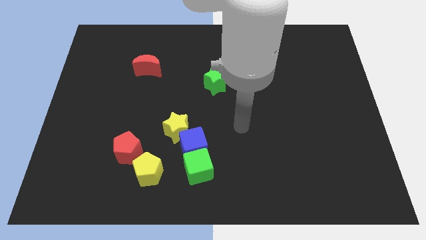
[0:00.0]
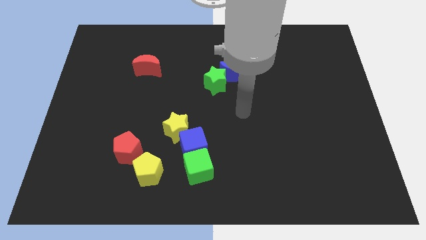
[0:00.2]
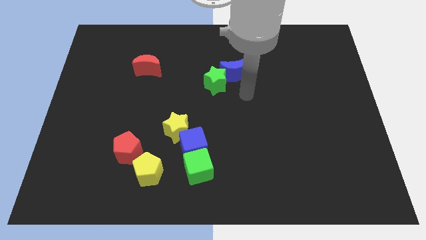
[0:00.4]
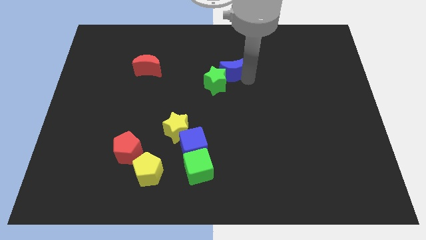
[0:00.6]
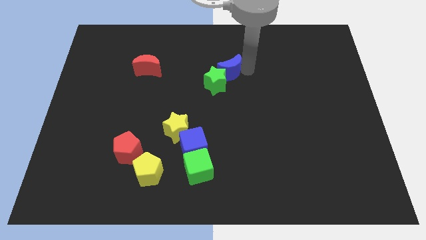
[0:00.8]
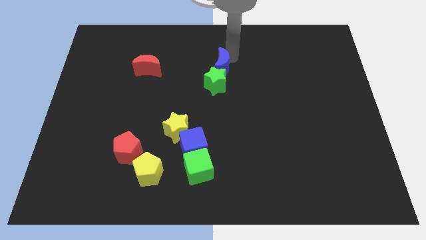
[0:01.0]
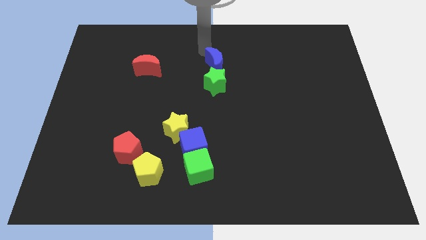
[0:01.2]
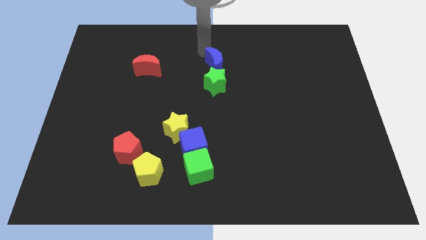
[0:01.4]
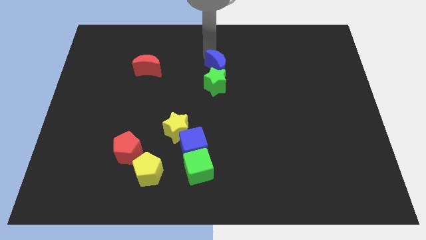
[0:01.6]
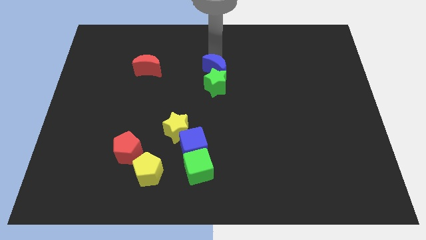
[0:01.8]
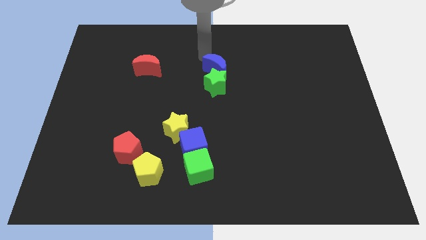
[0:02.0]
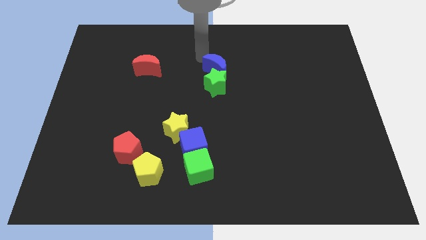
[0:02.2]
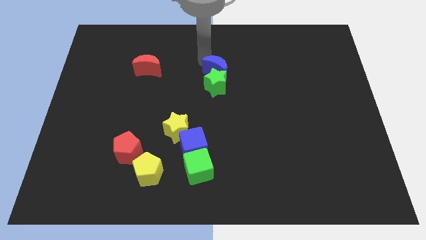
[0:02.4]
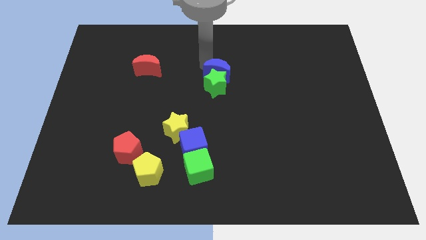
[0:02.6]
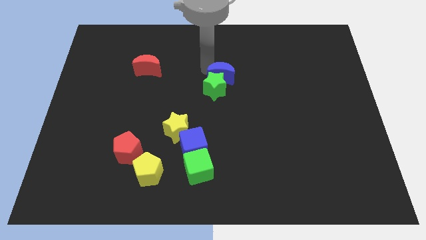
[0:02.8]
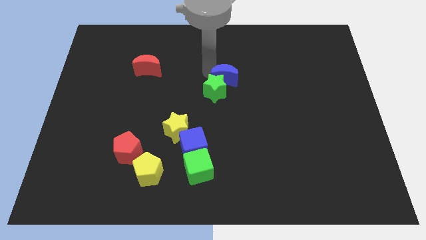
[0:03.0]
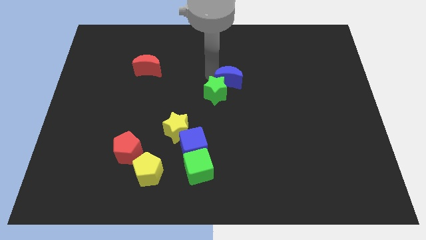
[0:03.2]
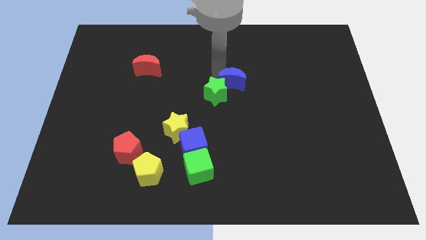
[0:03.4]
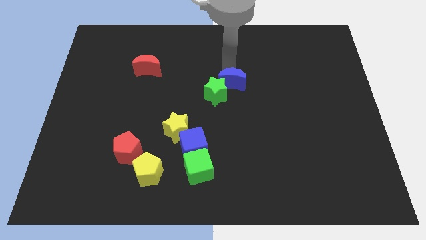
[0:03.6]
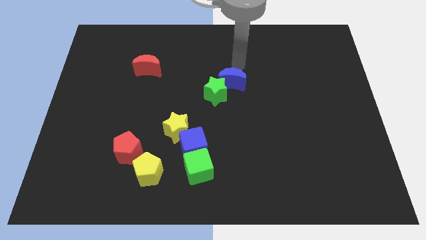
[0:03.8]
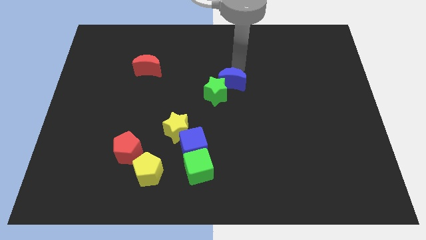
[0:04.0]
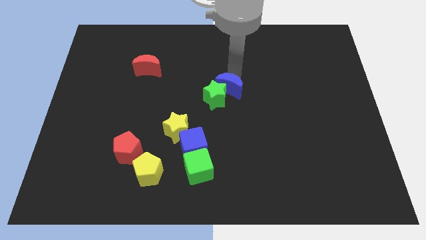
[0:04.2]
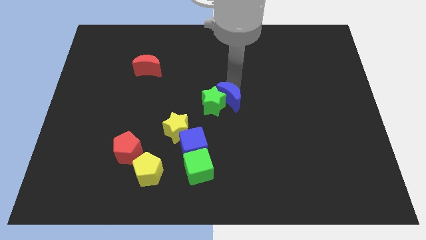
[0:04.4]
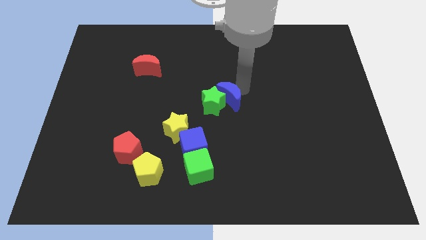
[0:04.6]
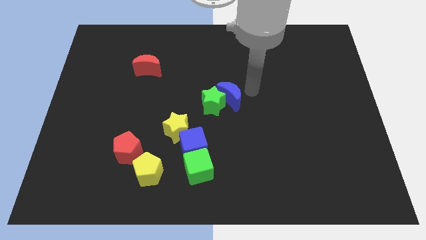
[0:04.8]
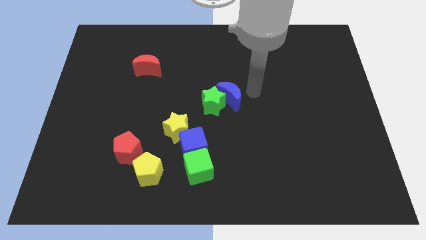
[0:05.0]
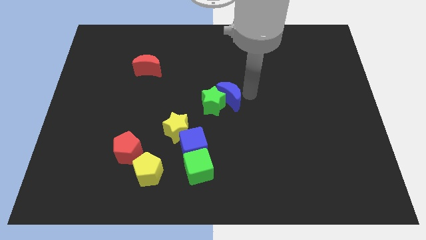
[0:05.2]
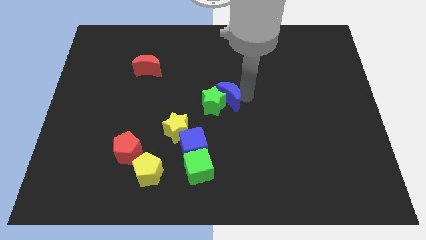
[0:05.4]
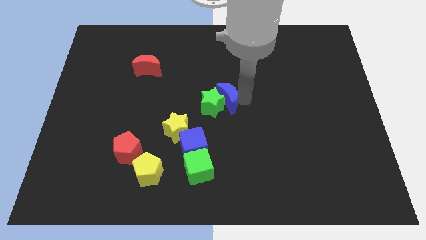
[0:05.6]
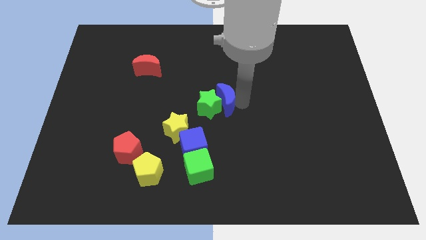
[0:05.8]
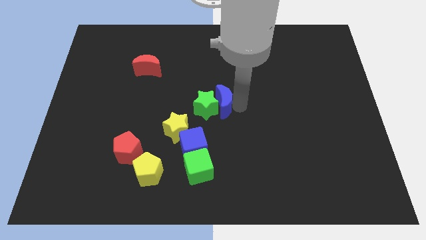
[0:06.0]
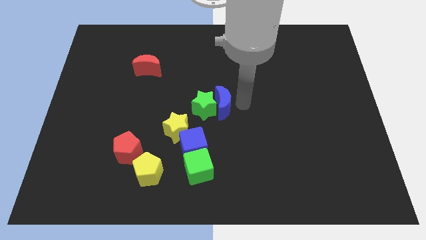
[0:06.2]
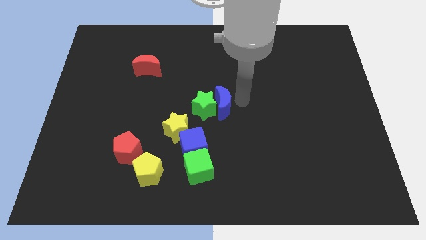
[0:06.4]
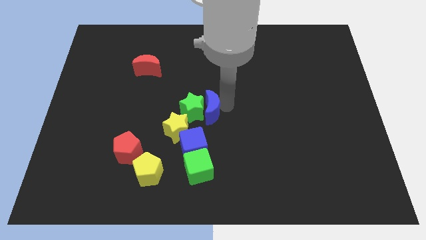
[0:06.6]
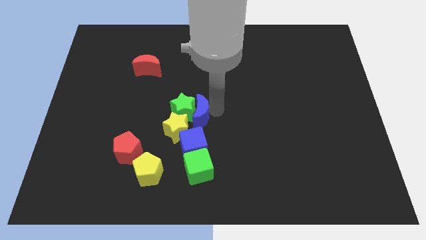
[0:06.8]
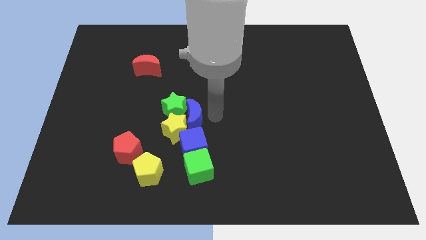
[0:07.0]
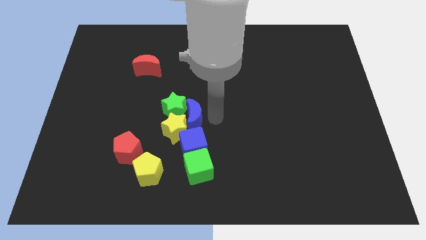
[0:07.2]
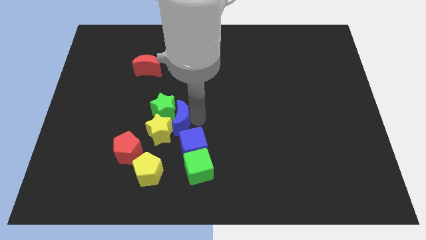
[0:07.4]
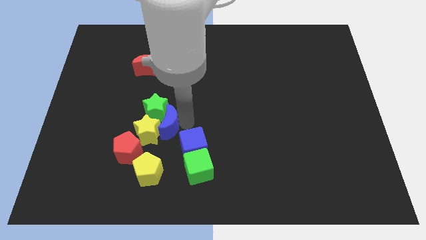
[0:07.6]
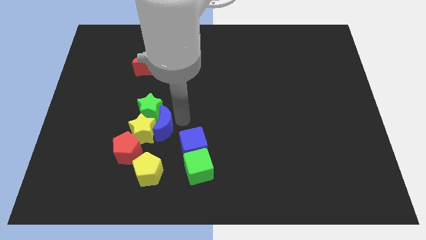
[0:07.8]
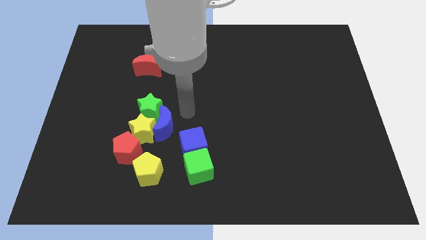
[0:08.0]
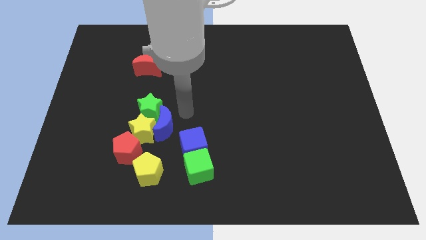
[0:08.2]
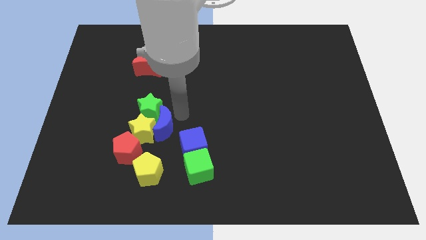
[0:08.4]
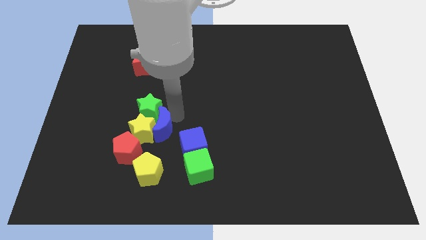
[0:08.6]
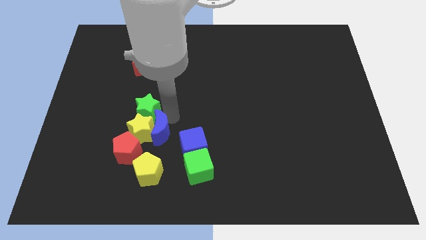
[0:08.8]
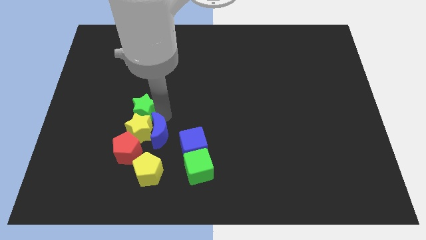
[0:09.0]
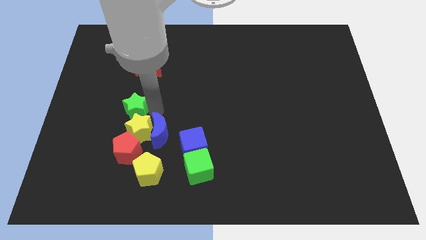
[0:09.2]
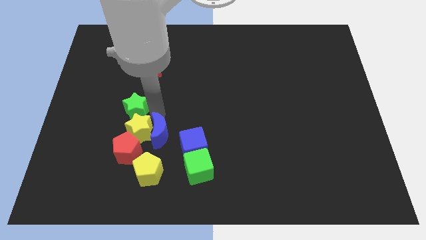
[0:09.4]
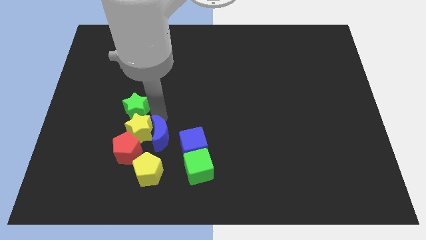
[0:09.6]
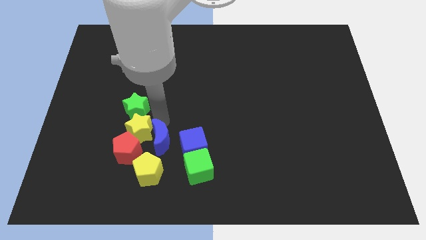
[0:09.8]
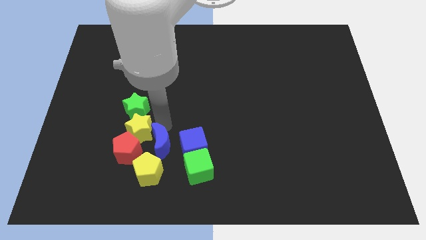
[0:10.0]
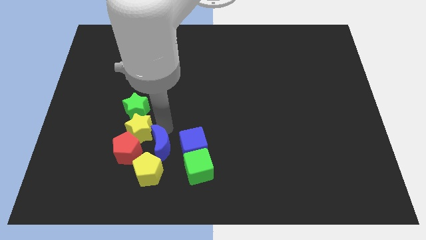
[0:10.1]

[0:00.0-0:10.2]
put the blue moon to the bottom left side of the blue cube

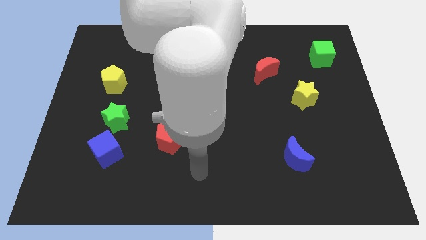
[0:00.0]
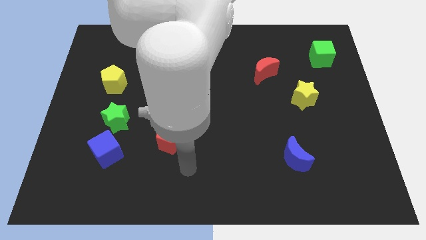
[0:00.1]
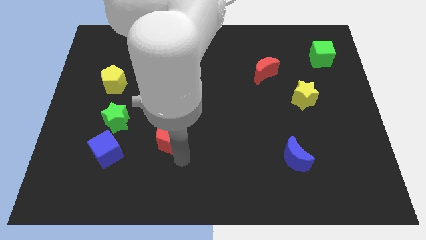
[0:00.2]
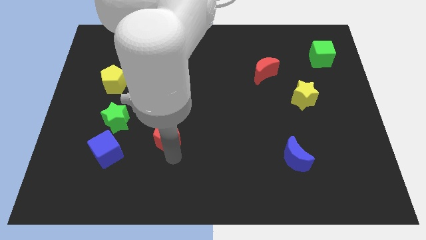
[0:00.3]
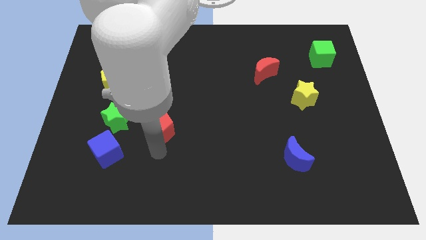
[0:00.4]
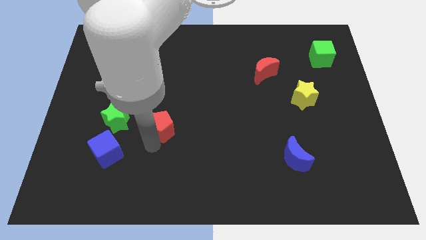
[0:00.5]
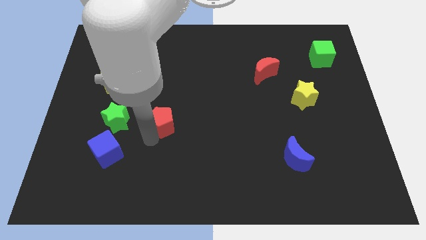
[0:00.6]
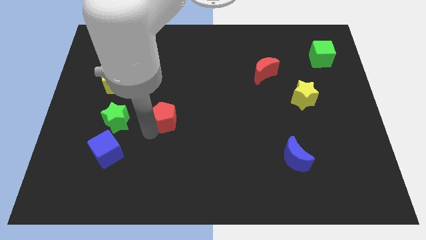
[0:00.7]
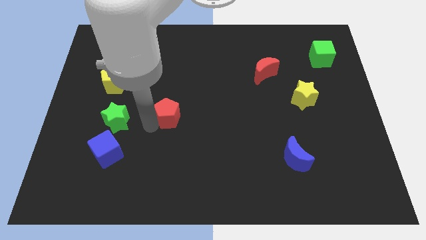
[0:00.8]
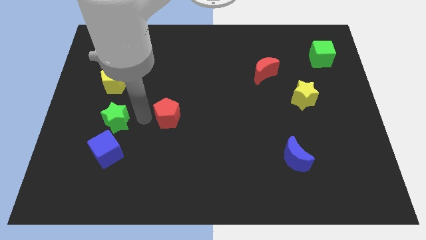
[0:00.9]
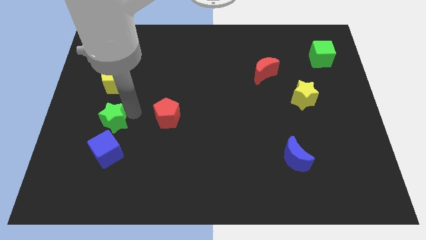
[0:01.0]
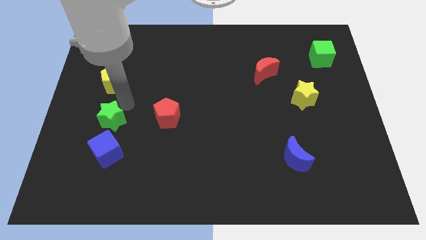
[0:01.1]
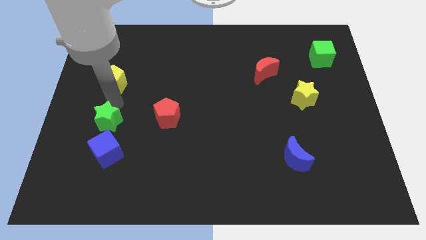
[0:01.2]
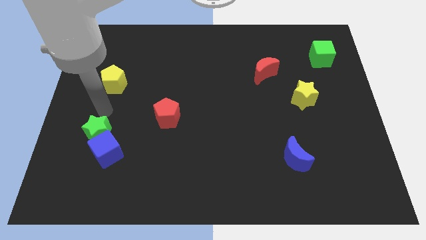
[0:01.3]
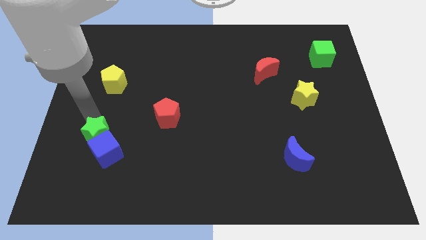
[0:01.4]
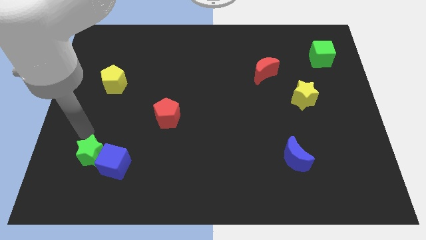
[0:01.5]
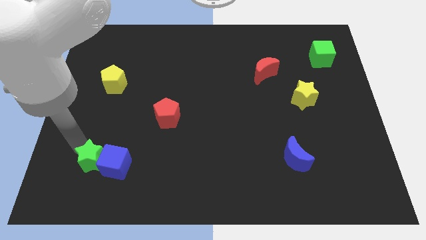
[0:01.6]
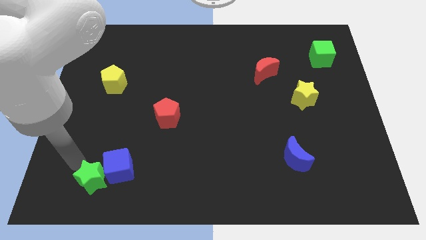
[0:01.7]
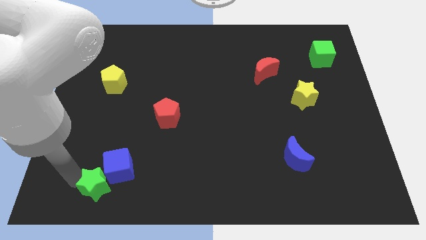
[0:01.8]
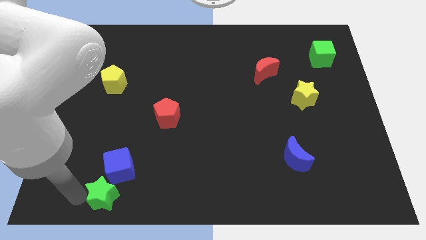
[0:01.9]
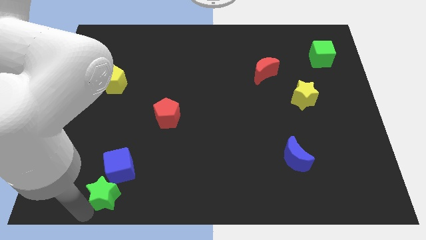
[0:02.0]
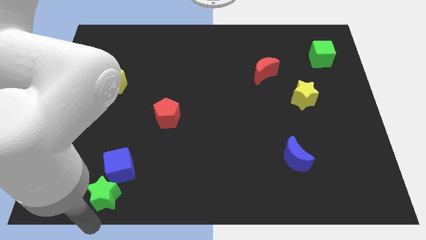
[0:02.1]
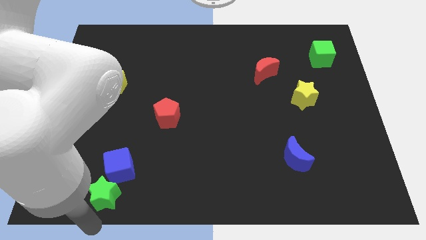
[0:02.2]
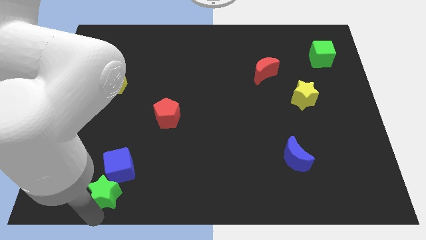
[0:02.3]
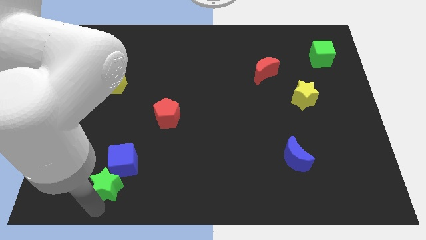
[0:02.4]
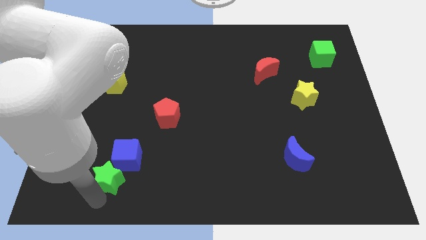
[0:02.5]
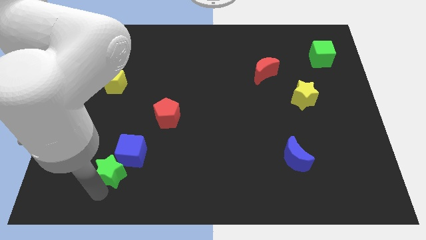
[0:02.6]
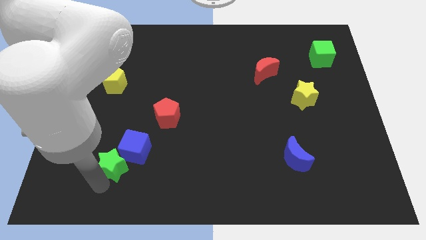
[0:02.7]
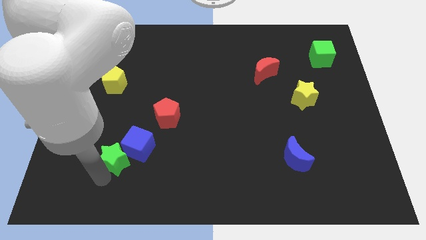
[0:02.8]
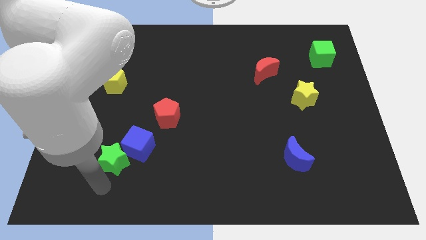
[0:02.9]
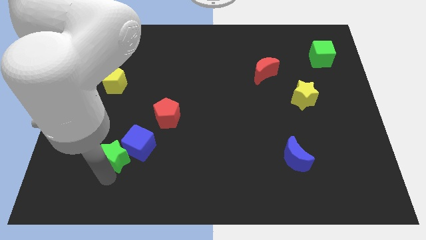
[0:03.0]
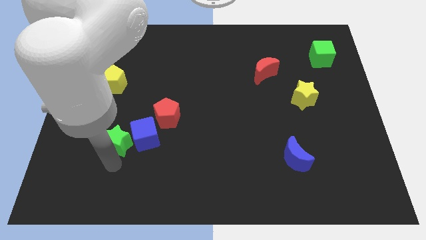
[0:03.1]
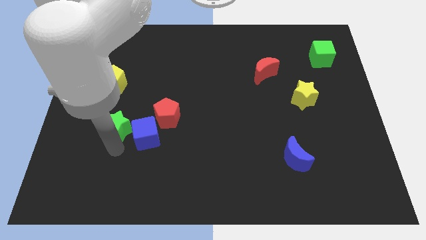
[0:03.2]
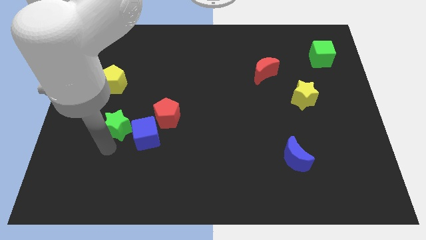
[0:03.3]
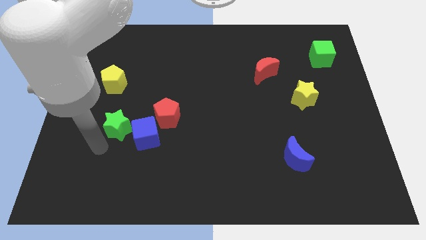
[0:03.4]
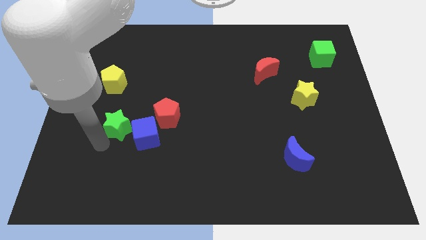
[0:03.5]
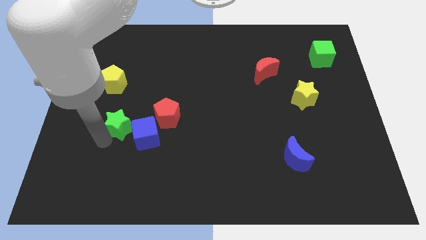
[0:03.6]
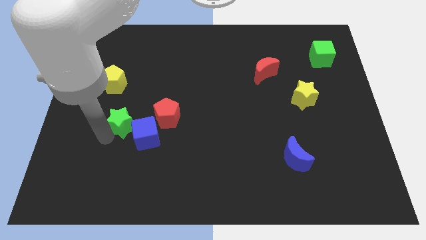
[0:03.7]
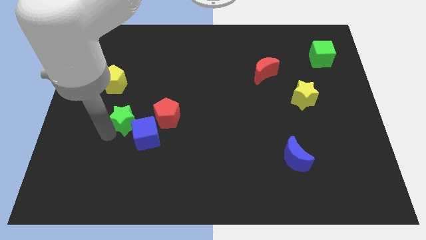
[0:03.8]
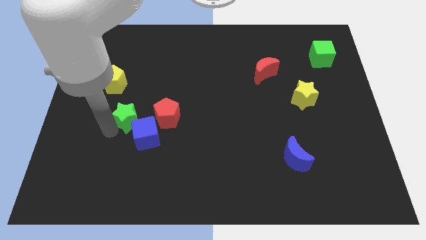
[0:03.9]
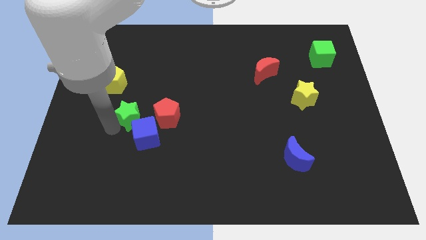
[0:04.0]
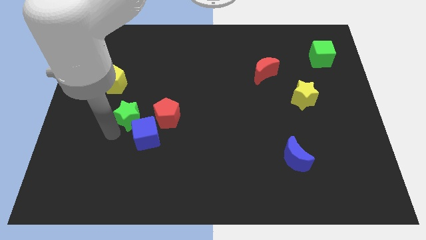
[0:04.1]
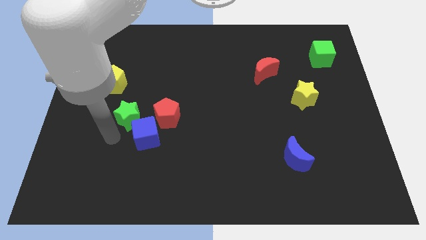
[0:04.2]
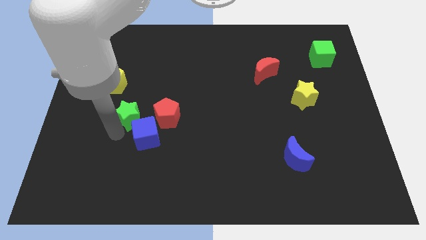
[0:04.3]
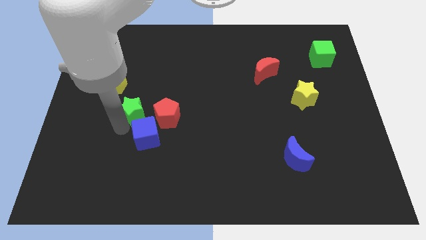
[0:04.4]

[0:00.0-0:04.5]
slide the green star to the top left of the red pentagon
